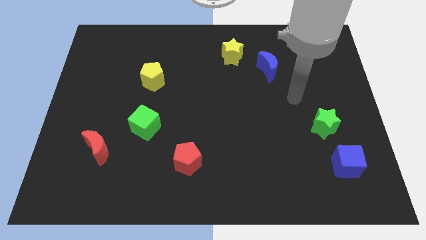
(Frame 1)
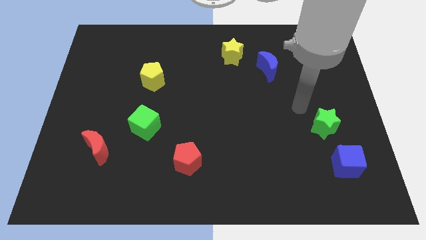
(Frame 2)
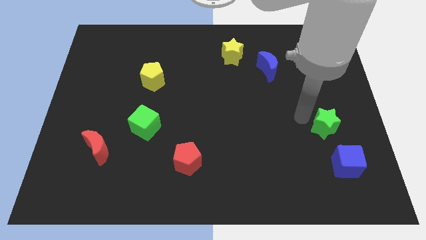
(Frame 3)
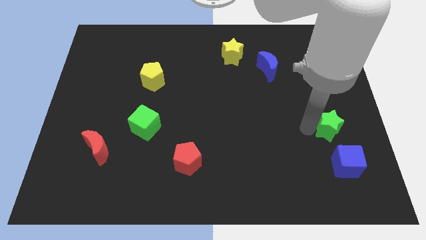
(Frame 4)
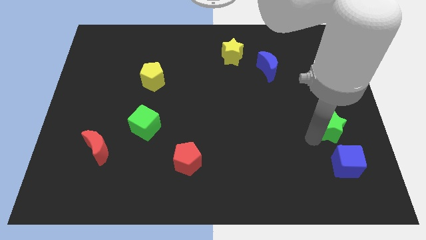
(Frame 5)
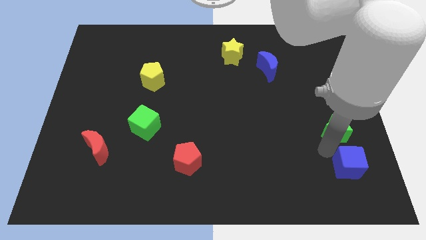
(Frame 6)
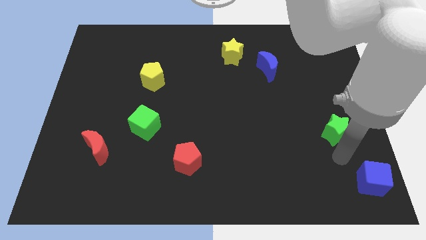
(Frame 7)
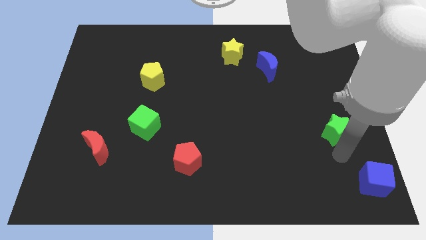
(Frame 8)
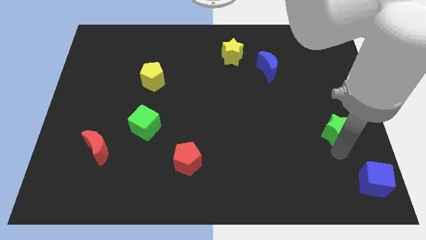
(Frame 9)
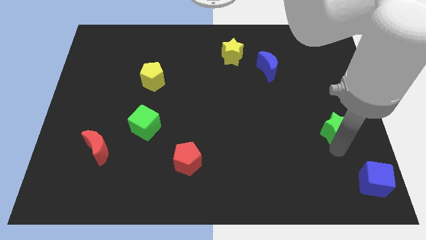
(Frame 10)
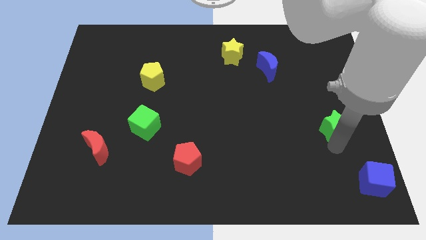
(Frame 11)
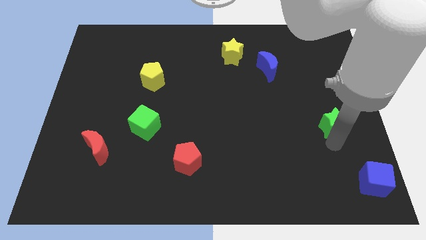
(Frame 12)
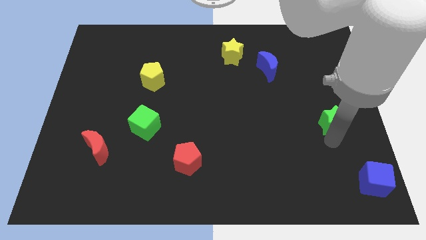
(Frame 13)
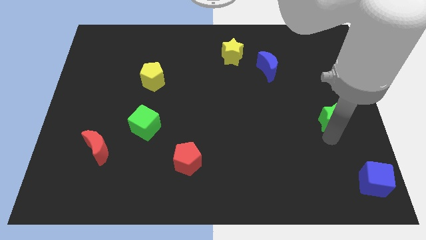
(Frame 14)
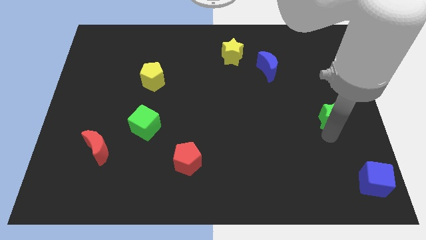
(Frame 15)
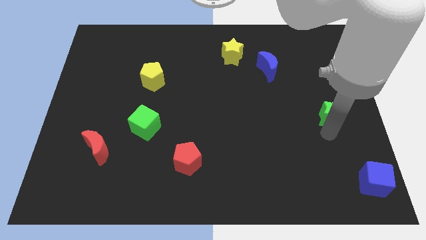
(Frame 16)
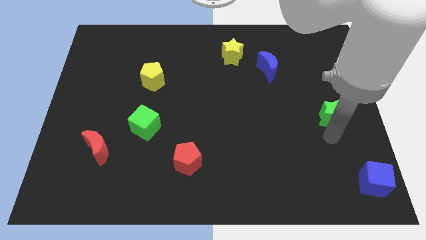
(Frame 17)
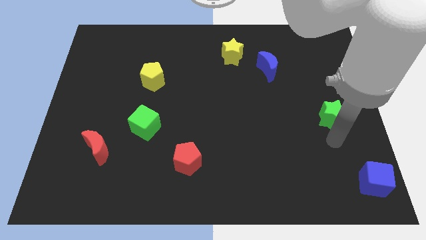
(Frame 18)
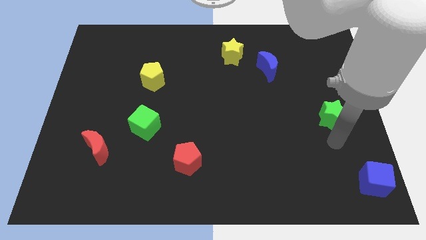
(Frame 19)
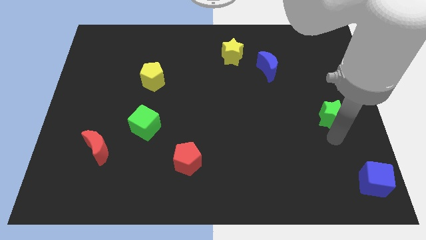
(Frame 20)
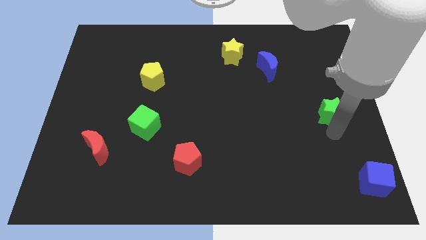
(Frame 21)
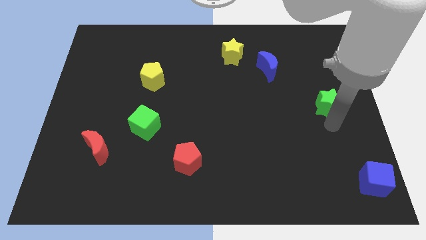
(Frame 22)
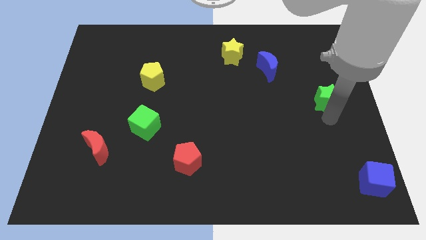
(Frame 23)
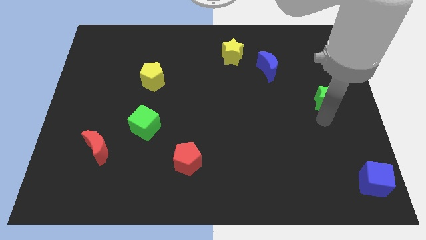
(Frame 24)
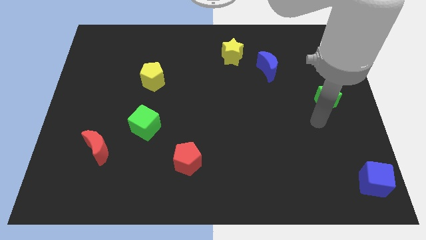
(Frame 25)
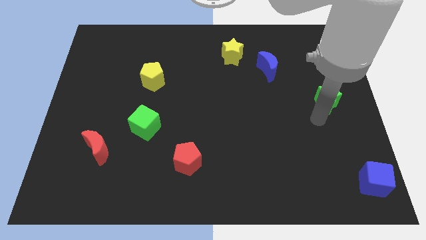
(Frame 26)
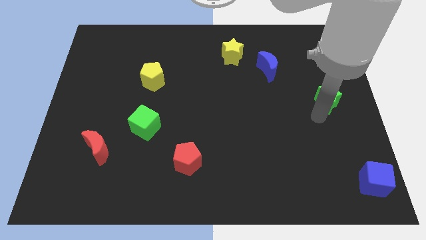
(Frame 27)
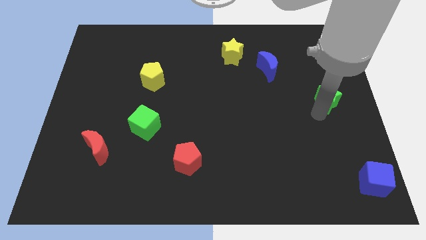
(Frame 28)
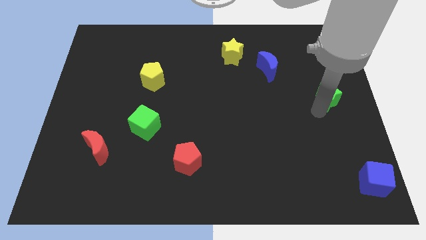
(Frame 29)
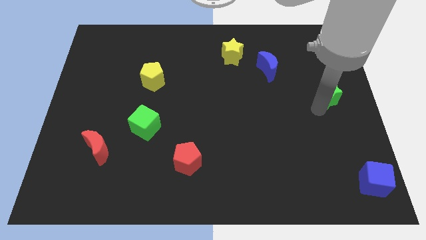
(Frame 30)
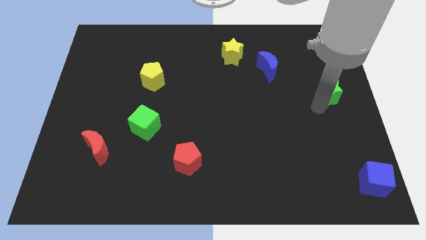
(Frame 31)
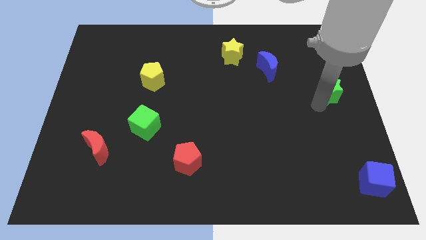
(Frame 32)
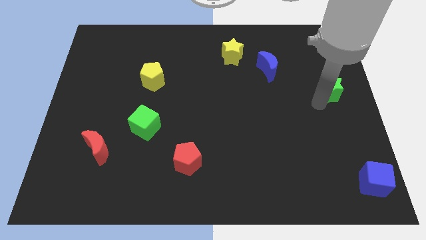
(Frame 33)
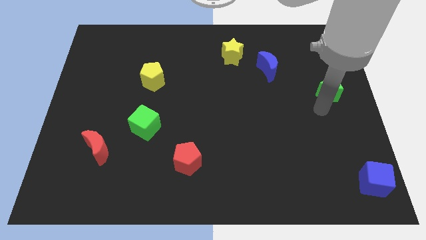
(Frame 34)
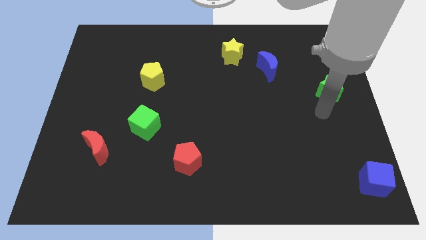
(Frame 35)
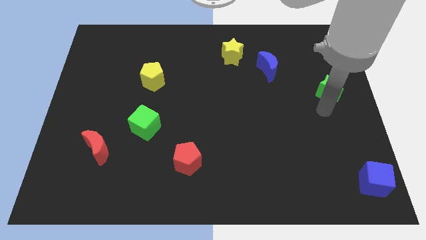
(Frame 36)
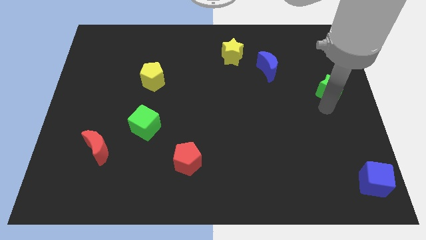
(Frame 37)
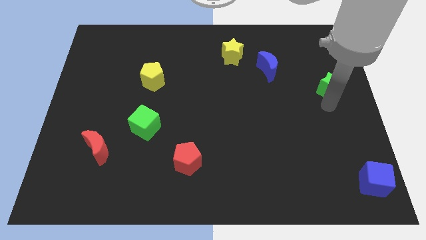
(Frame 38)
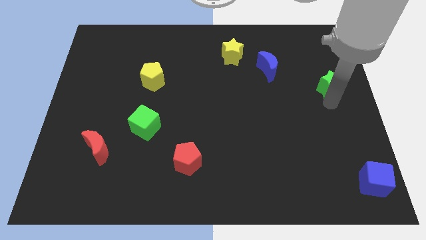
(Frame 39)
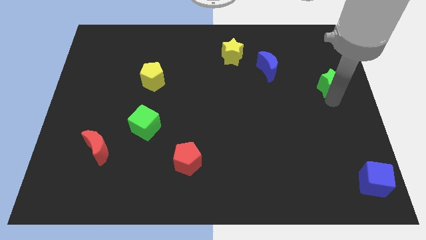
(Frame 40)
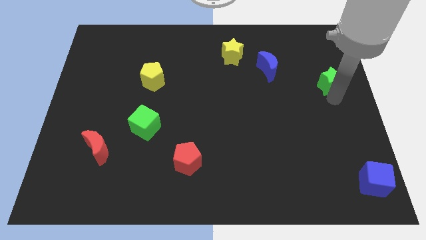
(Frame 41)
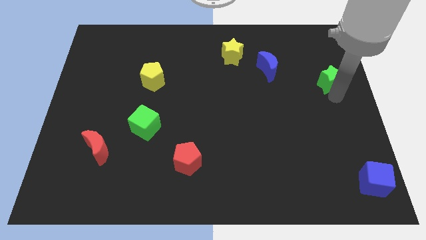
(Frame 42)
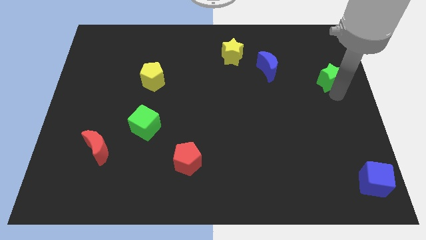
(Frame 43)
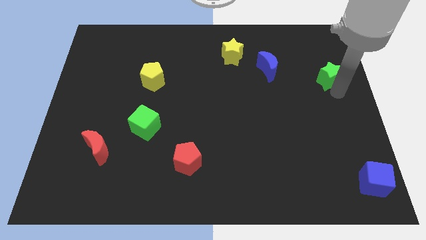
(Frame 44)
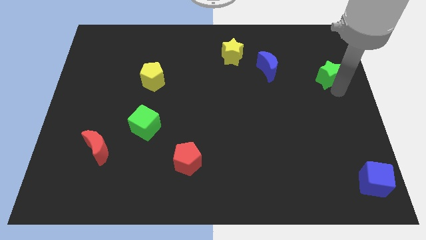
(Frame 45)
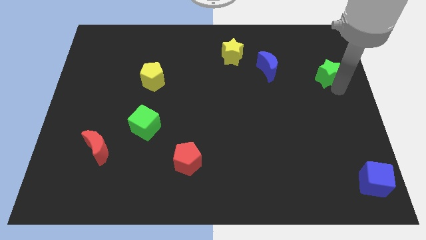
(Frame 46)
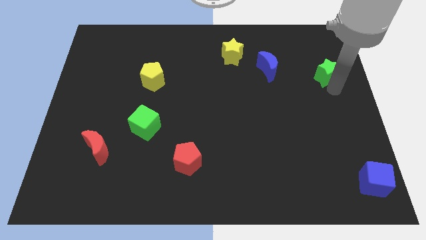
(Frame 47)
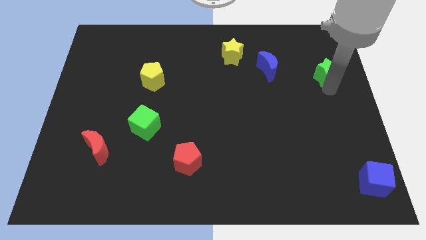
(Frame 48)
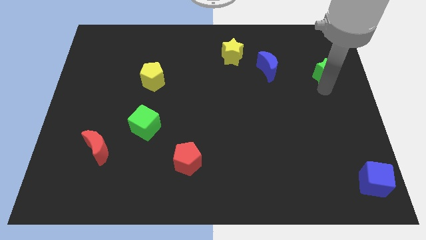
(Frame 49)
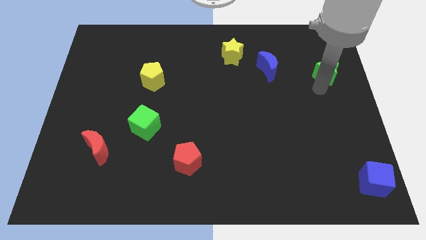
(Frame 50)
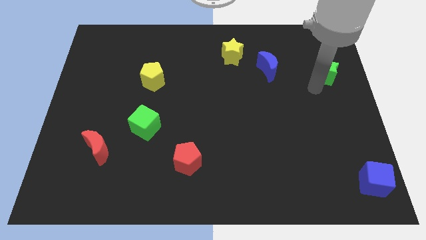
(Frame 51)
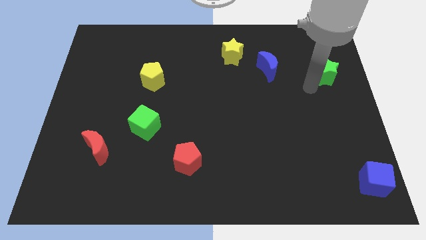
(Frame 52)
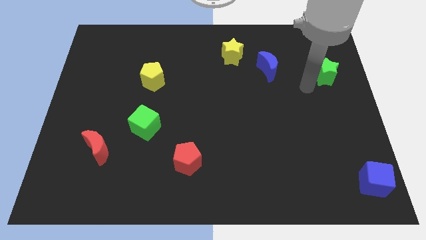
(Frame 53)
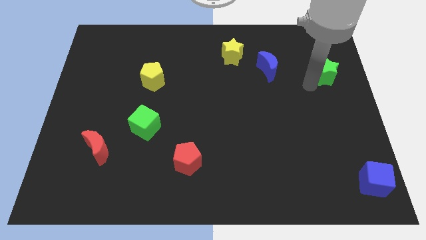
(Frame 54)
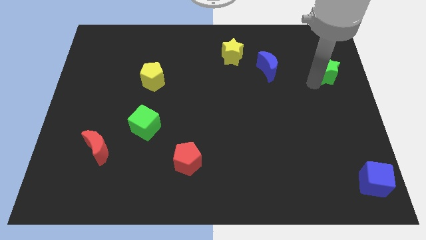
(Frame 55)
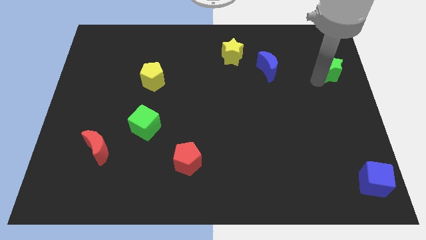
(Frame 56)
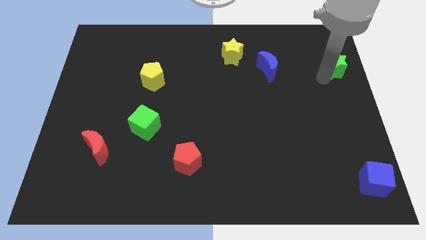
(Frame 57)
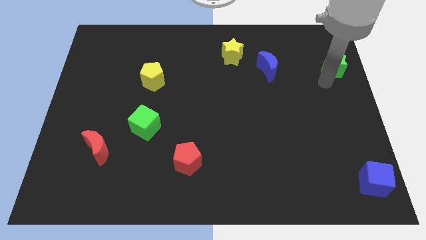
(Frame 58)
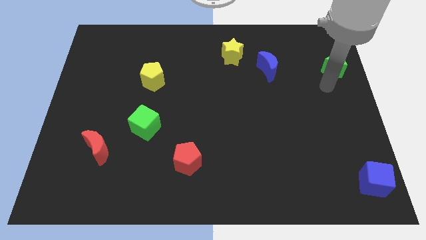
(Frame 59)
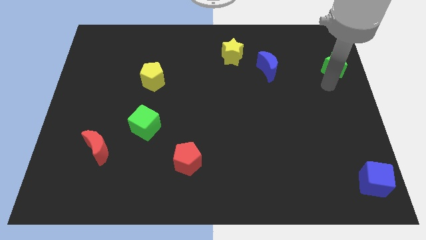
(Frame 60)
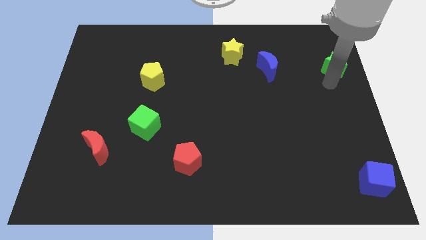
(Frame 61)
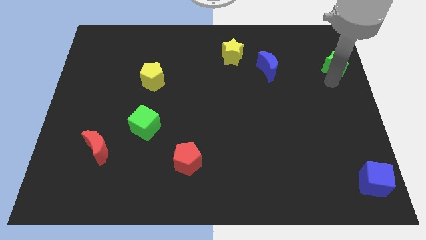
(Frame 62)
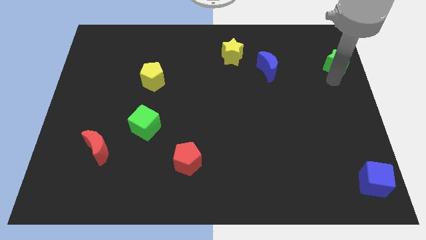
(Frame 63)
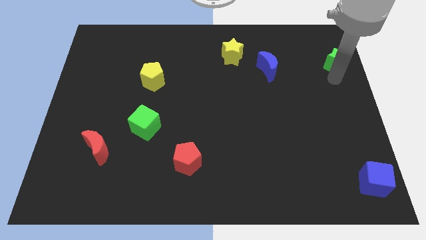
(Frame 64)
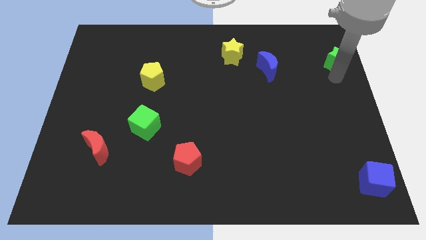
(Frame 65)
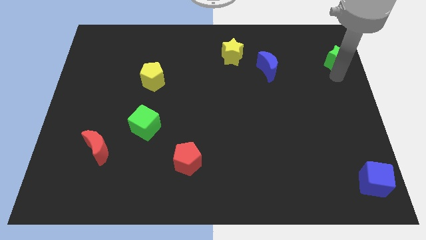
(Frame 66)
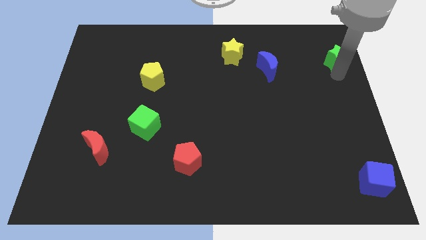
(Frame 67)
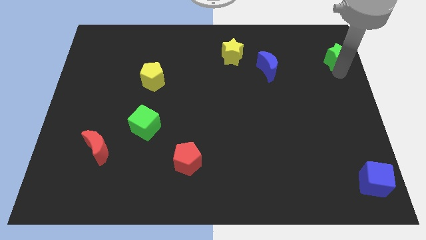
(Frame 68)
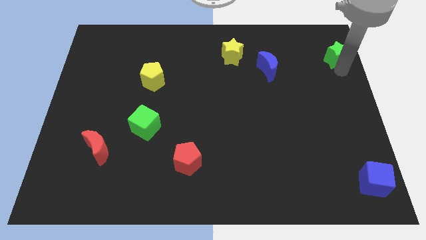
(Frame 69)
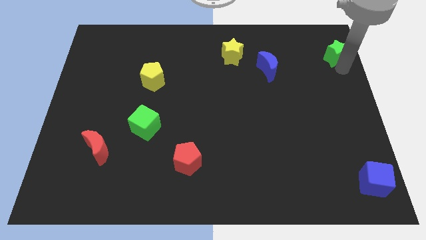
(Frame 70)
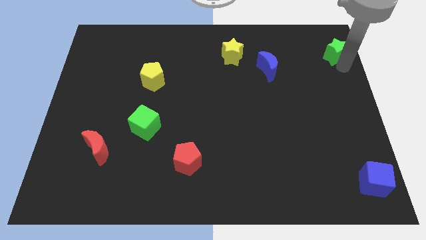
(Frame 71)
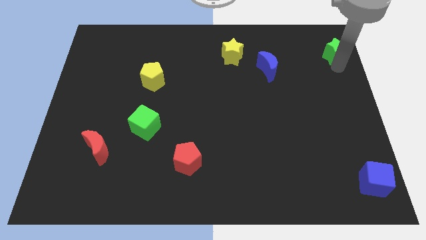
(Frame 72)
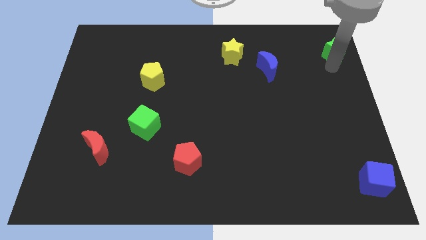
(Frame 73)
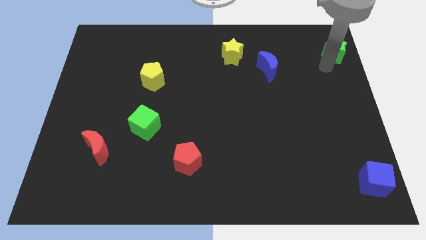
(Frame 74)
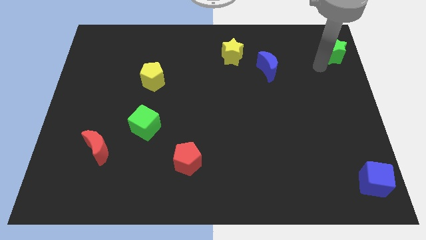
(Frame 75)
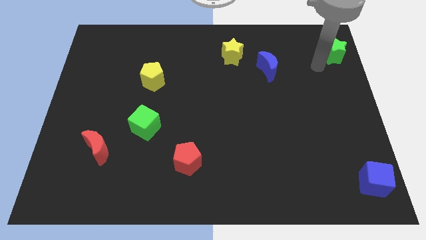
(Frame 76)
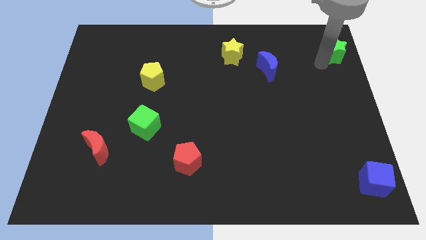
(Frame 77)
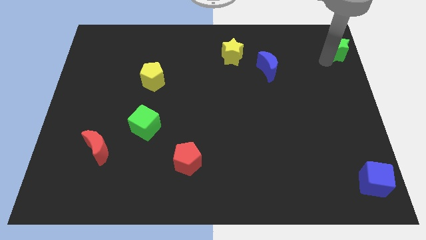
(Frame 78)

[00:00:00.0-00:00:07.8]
slide the green star to the top right corner
